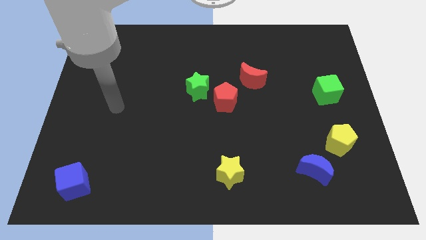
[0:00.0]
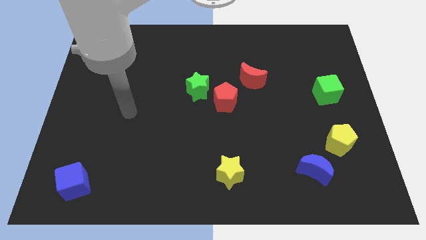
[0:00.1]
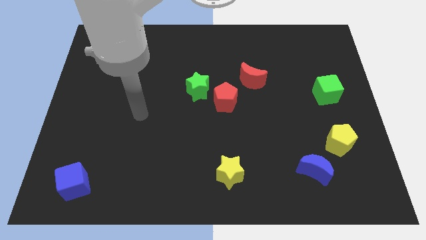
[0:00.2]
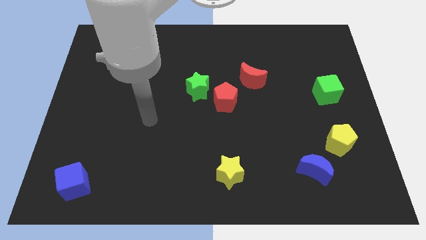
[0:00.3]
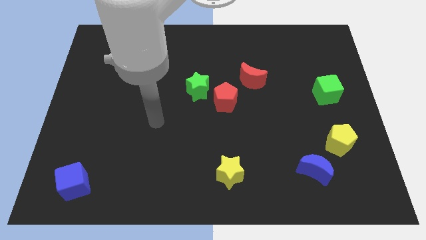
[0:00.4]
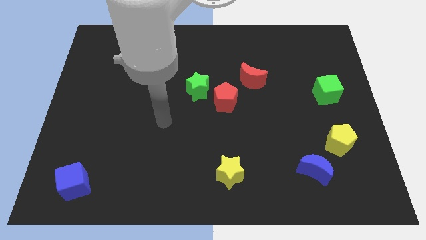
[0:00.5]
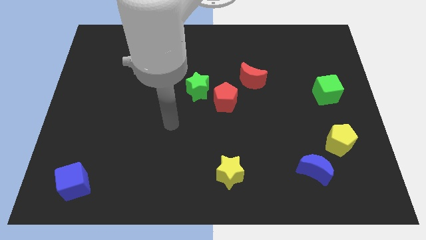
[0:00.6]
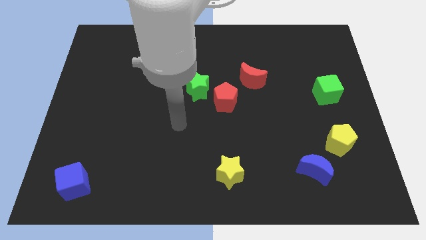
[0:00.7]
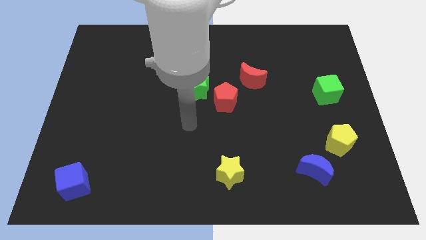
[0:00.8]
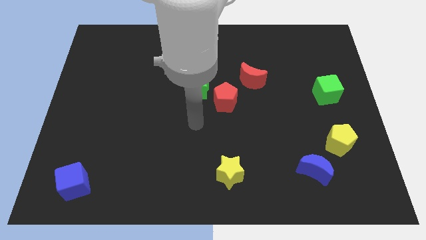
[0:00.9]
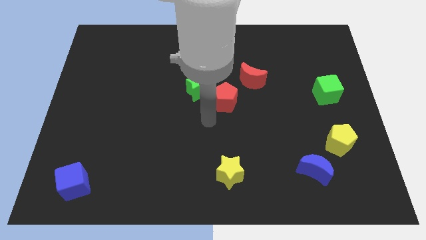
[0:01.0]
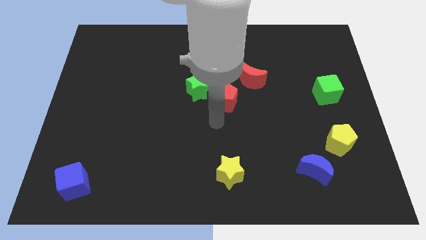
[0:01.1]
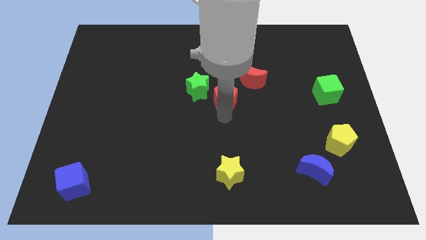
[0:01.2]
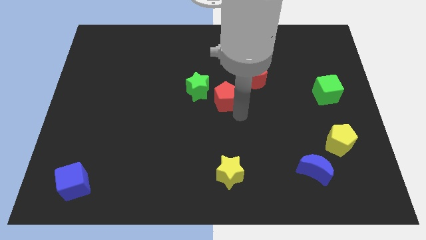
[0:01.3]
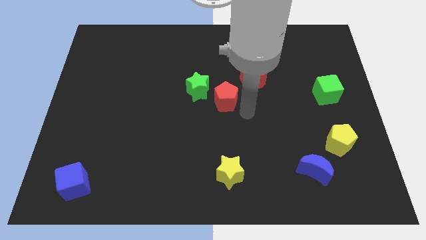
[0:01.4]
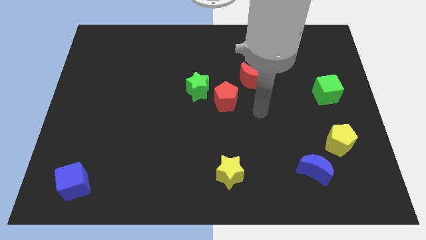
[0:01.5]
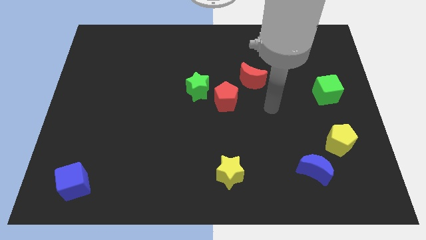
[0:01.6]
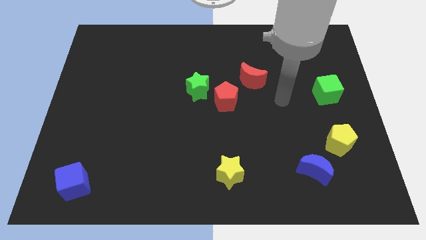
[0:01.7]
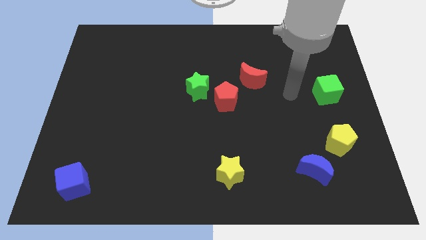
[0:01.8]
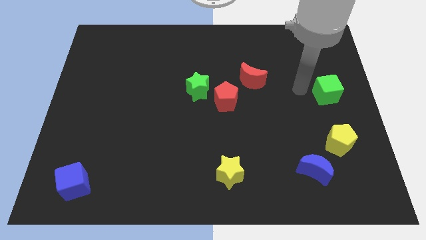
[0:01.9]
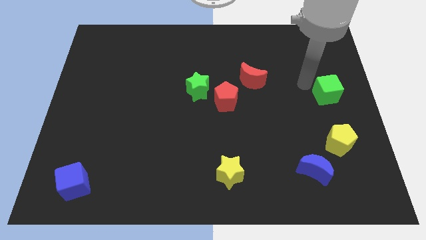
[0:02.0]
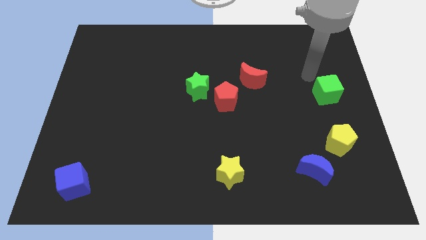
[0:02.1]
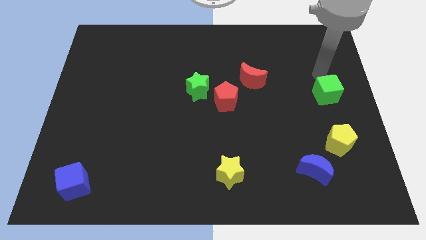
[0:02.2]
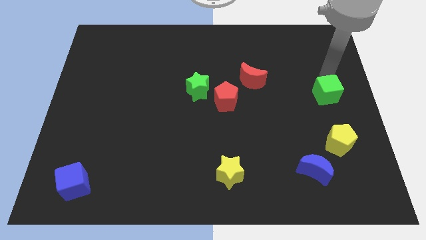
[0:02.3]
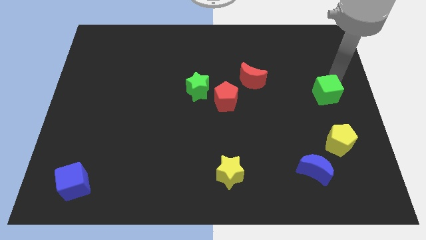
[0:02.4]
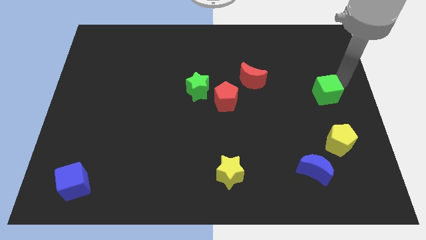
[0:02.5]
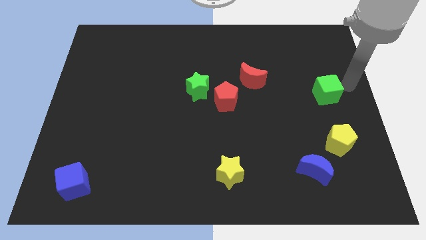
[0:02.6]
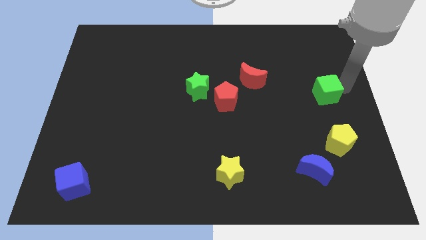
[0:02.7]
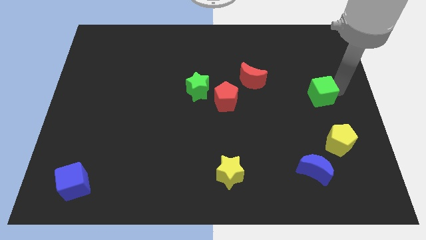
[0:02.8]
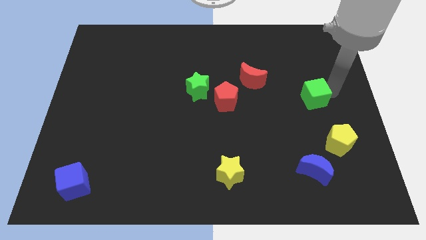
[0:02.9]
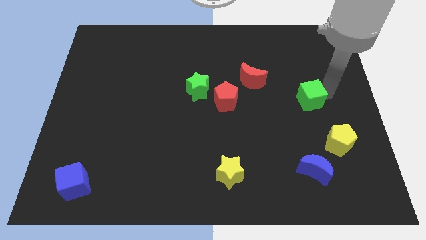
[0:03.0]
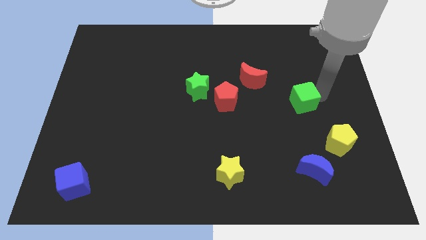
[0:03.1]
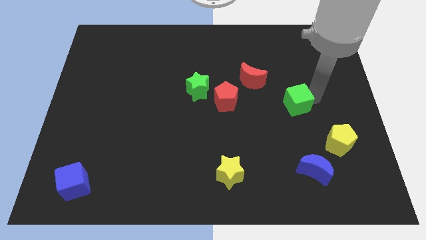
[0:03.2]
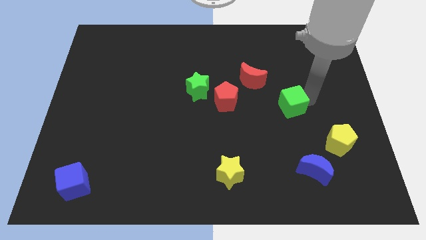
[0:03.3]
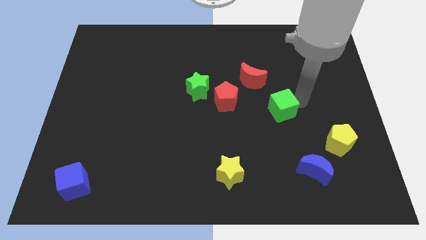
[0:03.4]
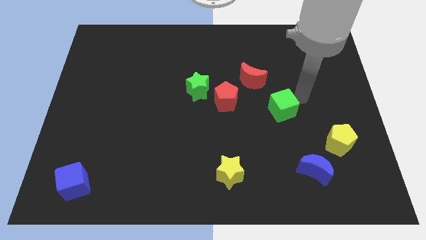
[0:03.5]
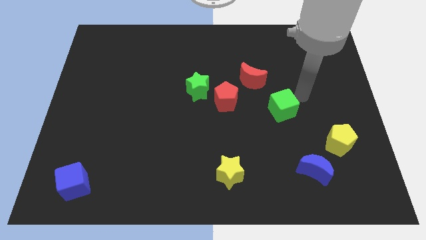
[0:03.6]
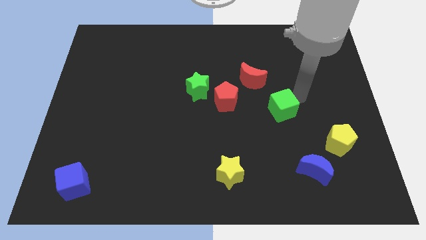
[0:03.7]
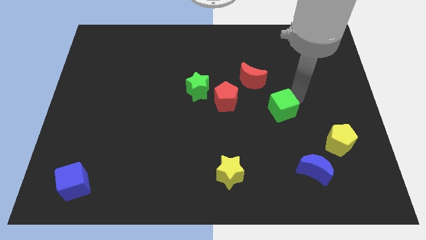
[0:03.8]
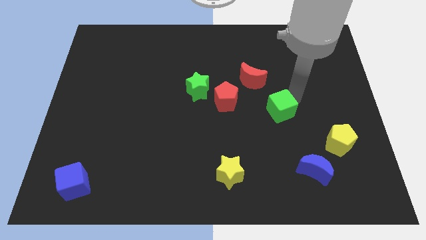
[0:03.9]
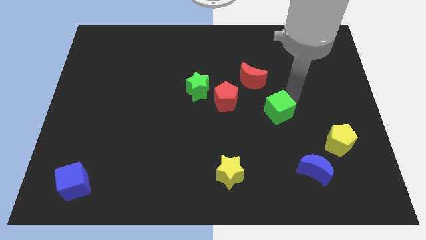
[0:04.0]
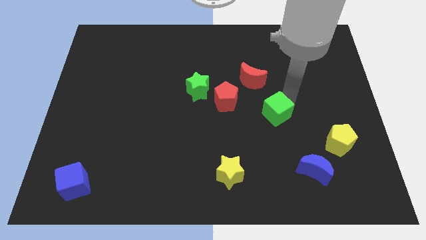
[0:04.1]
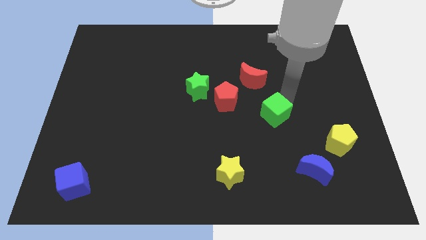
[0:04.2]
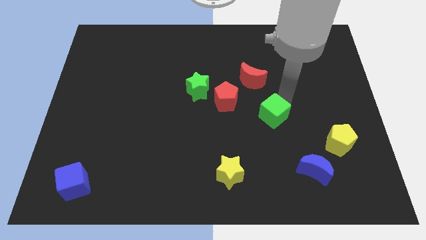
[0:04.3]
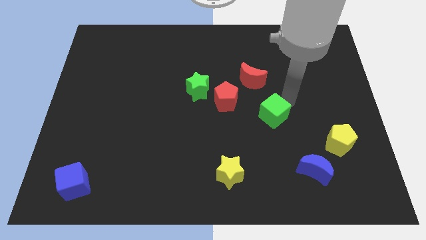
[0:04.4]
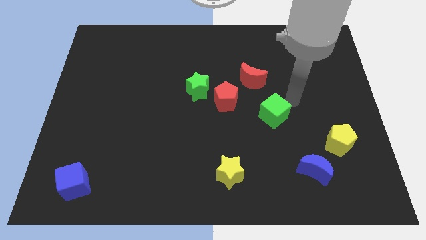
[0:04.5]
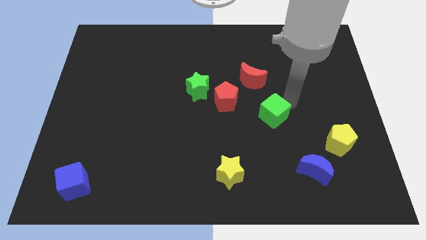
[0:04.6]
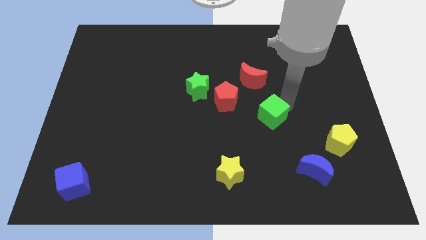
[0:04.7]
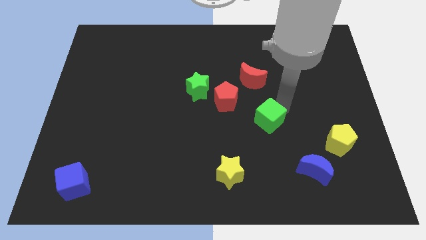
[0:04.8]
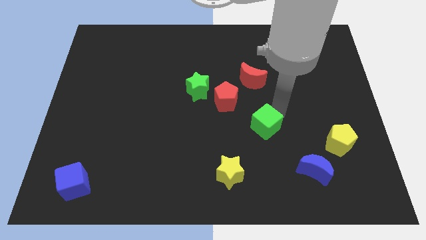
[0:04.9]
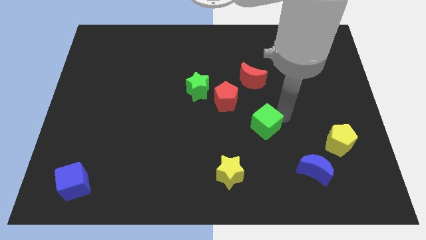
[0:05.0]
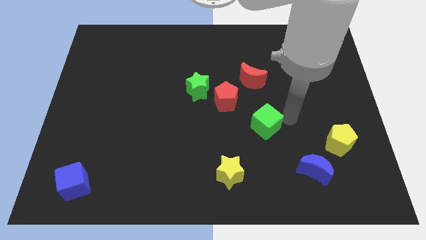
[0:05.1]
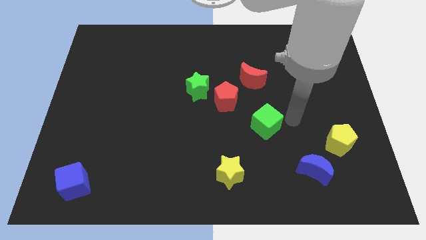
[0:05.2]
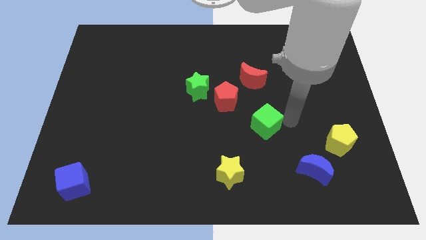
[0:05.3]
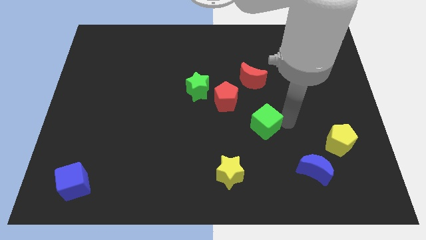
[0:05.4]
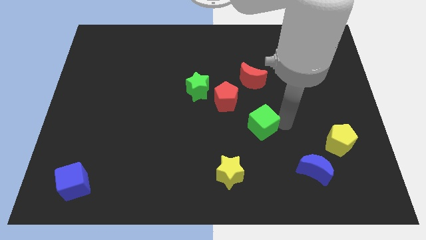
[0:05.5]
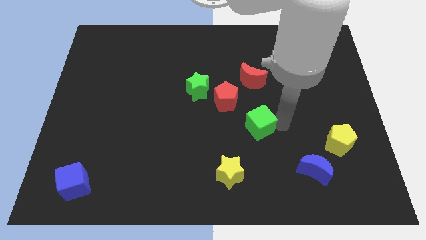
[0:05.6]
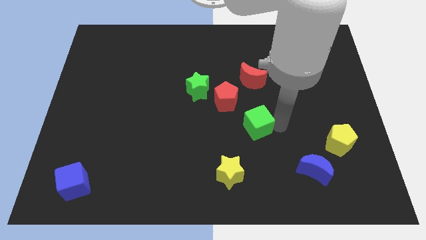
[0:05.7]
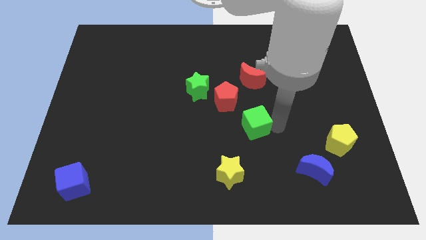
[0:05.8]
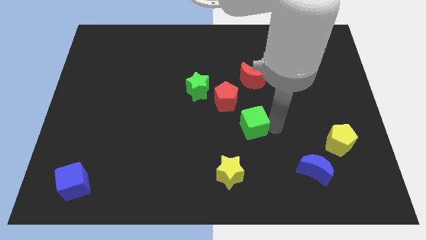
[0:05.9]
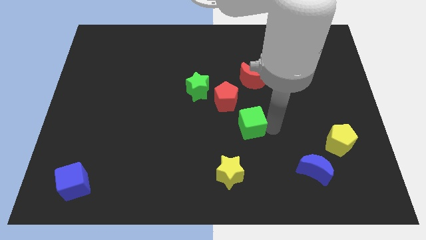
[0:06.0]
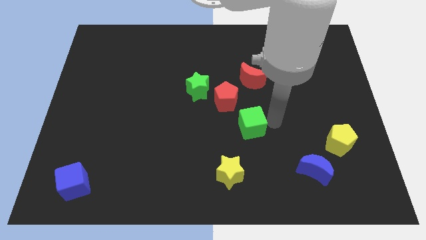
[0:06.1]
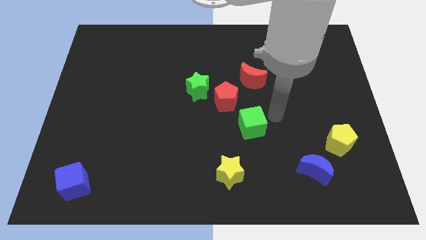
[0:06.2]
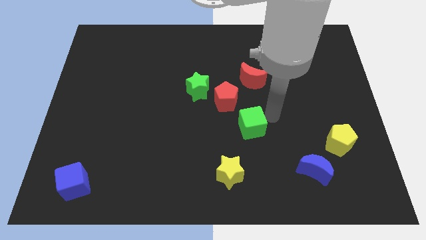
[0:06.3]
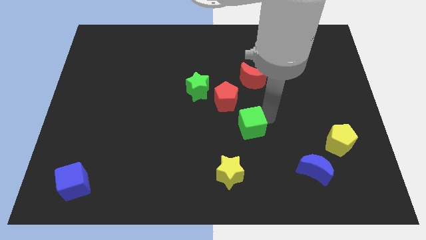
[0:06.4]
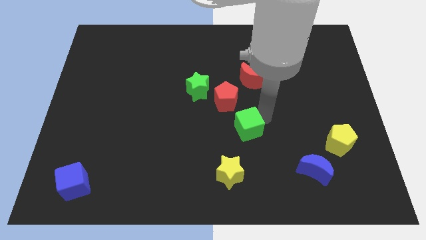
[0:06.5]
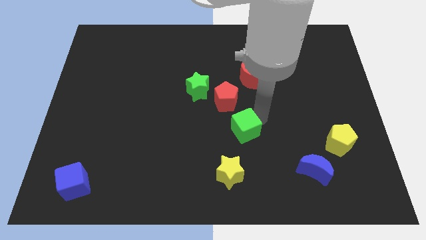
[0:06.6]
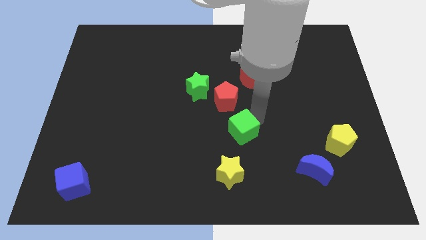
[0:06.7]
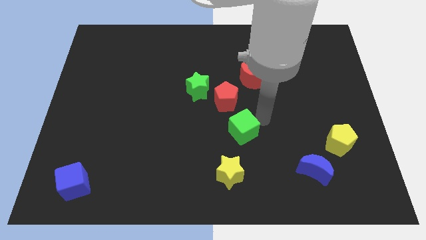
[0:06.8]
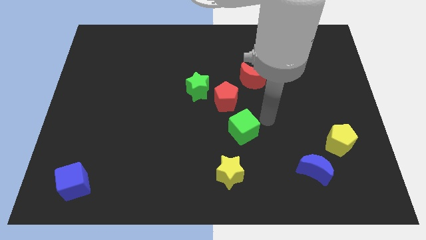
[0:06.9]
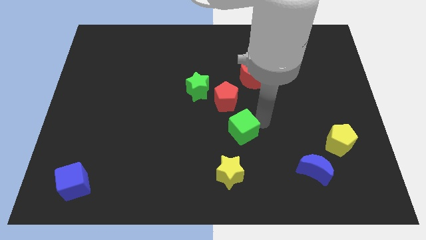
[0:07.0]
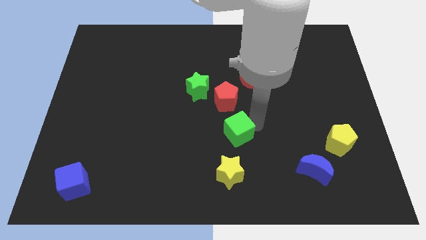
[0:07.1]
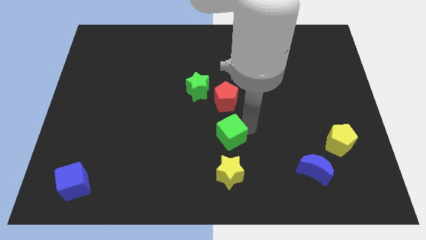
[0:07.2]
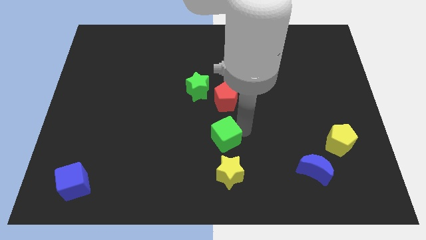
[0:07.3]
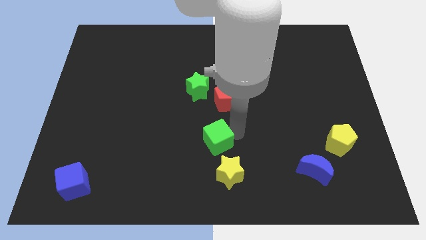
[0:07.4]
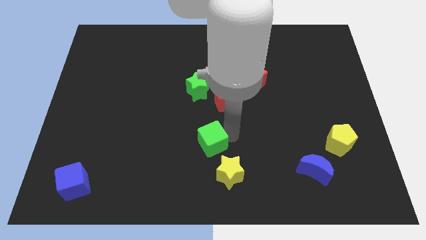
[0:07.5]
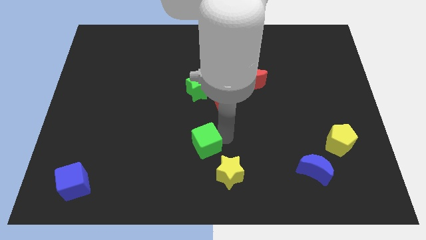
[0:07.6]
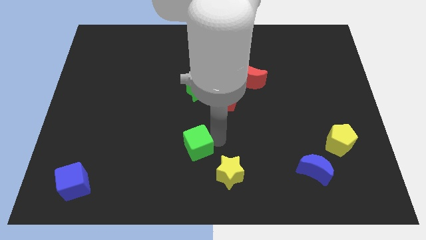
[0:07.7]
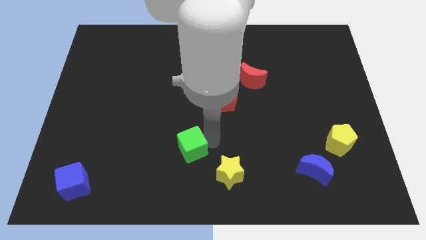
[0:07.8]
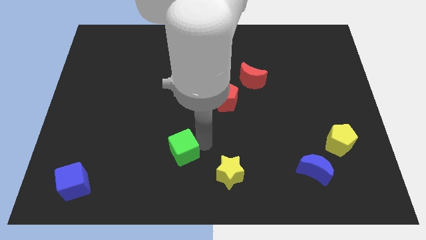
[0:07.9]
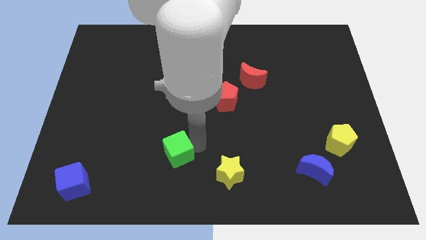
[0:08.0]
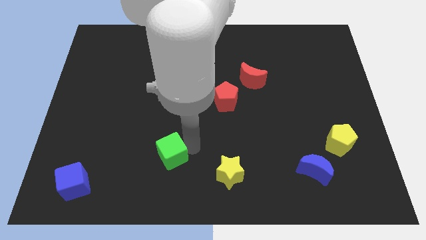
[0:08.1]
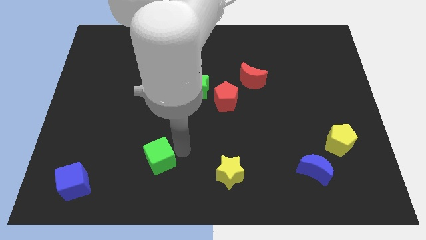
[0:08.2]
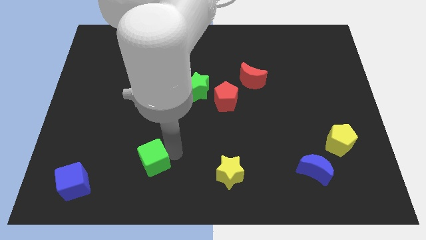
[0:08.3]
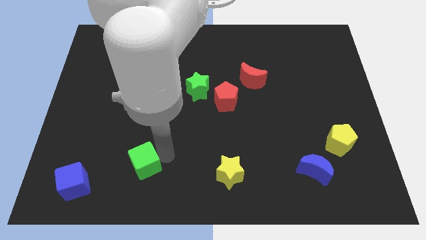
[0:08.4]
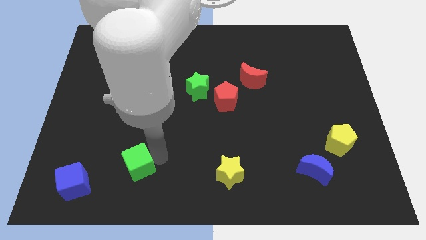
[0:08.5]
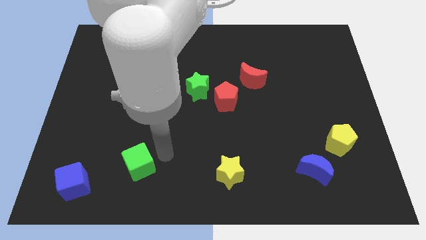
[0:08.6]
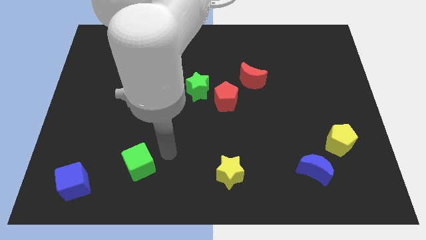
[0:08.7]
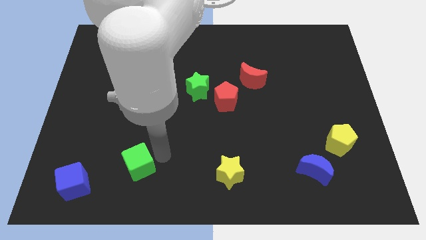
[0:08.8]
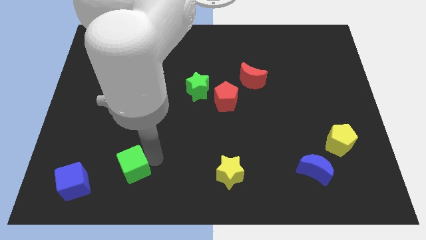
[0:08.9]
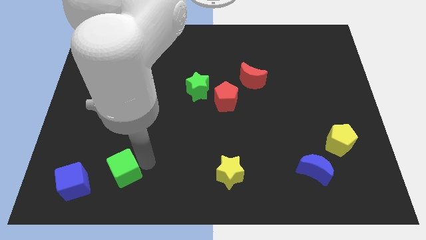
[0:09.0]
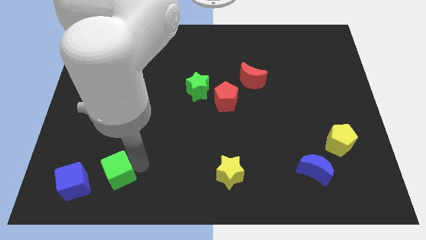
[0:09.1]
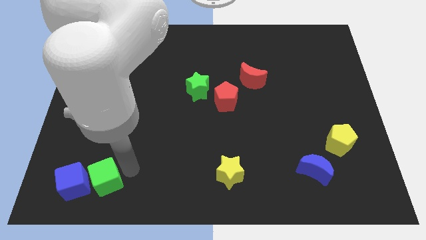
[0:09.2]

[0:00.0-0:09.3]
slide the green cube next to the blue cube
